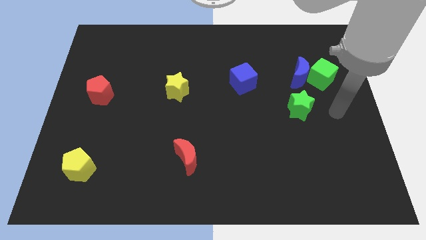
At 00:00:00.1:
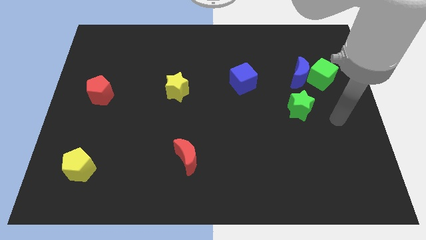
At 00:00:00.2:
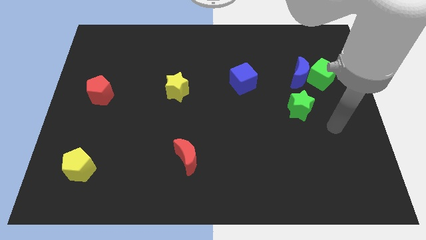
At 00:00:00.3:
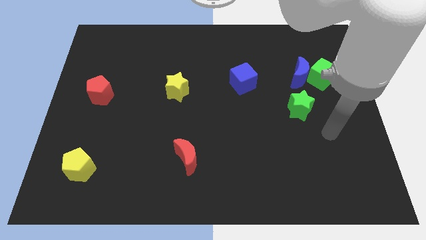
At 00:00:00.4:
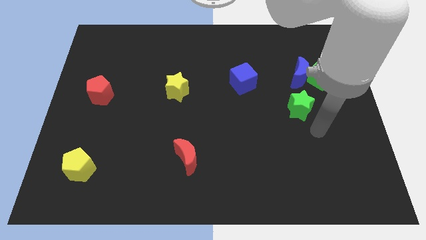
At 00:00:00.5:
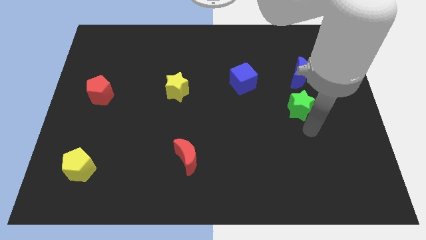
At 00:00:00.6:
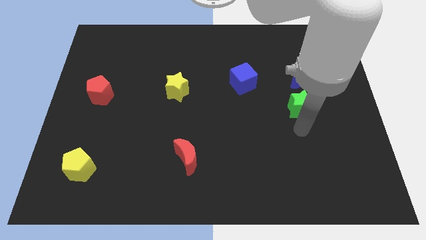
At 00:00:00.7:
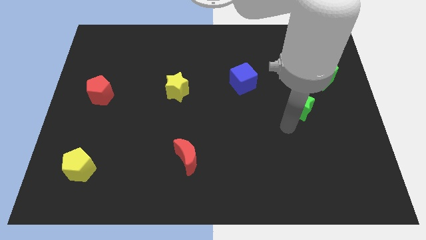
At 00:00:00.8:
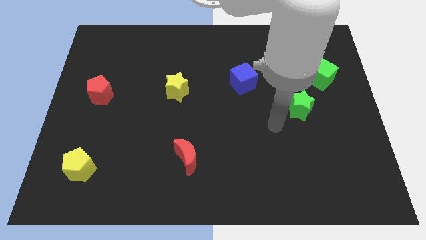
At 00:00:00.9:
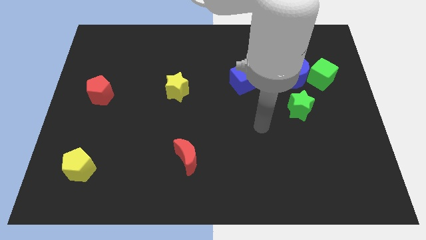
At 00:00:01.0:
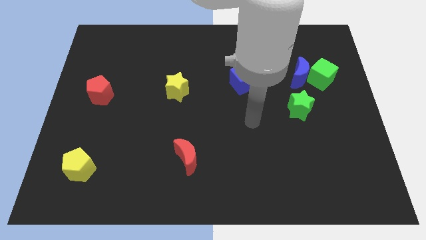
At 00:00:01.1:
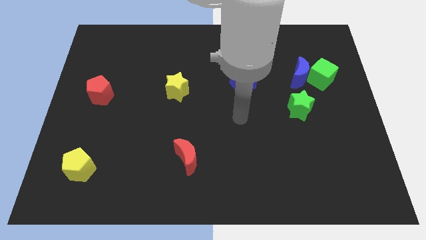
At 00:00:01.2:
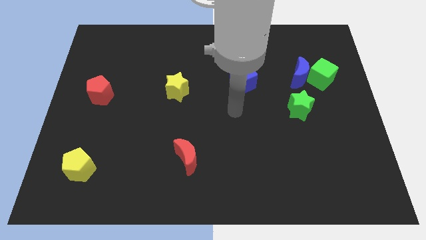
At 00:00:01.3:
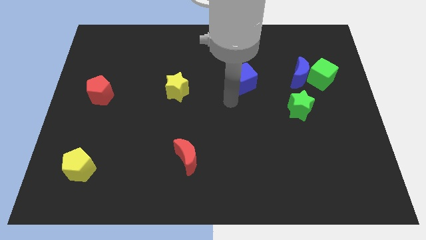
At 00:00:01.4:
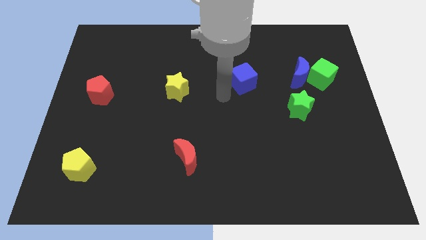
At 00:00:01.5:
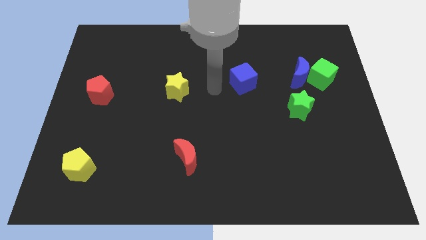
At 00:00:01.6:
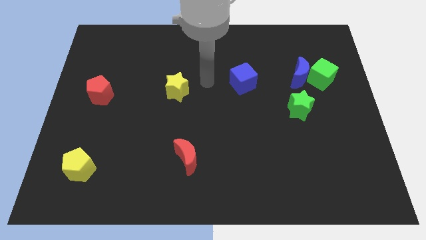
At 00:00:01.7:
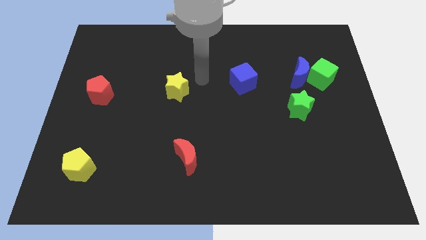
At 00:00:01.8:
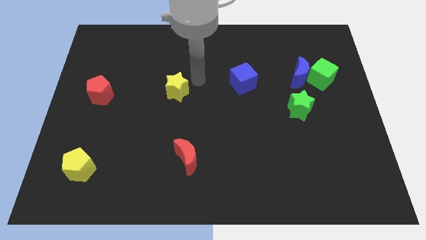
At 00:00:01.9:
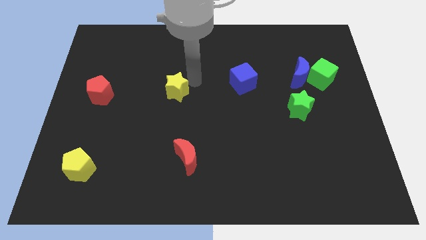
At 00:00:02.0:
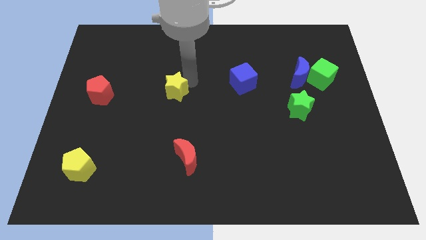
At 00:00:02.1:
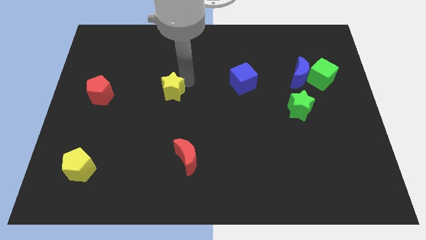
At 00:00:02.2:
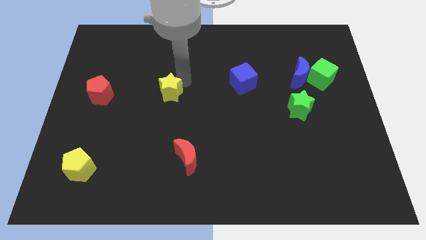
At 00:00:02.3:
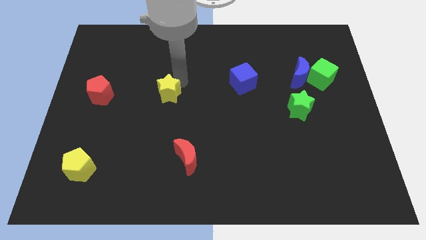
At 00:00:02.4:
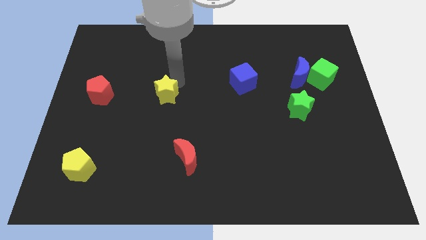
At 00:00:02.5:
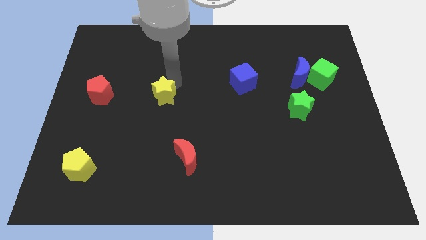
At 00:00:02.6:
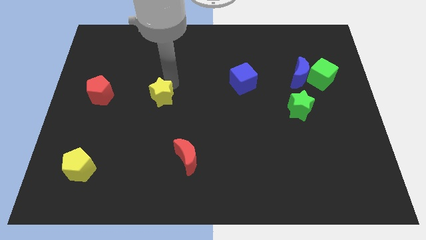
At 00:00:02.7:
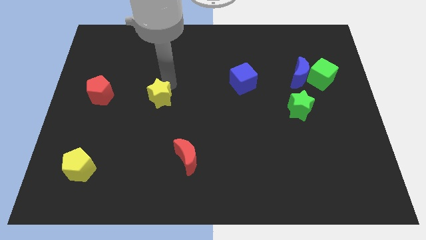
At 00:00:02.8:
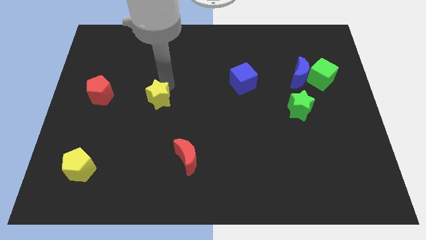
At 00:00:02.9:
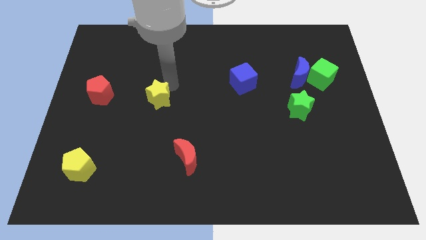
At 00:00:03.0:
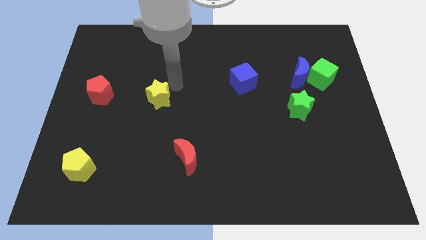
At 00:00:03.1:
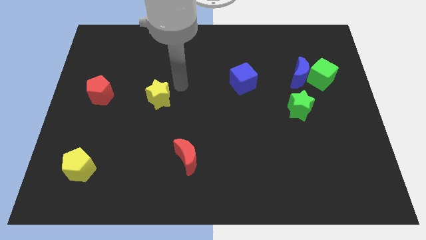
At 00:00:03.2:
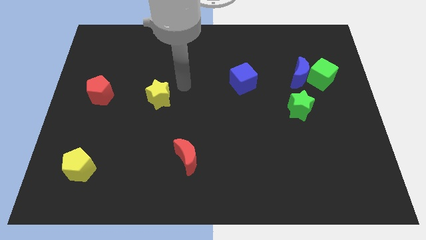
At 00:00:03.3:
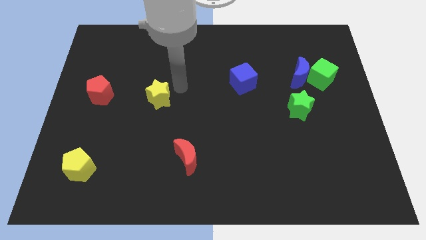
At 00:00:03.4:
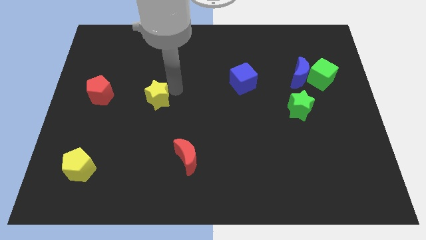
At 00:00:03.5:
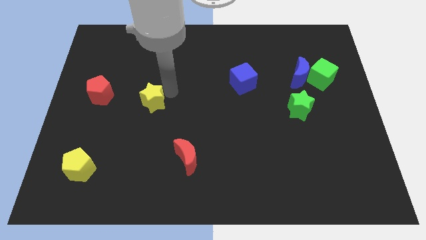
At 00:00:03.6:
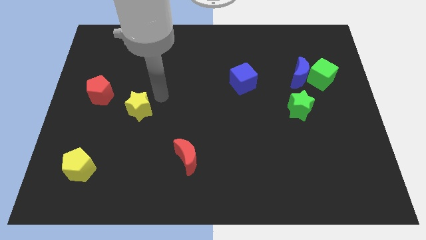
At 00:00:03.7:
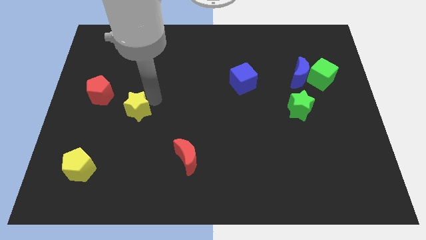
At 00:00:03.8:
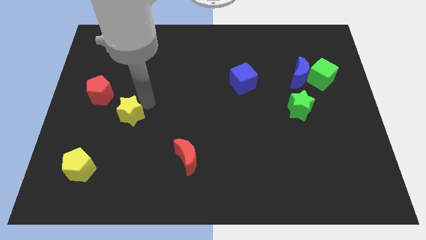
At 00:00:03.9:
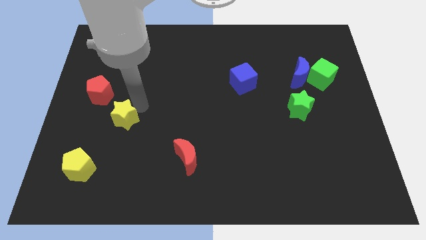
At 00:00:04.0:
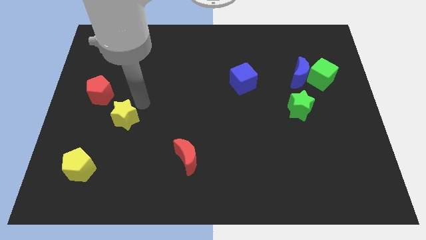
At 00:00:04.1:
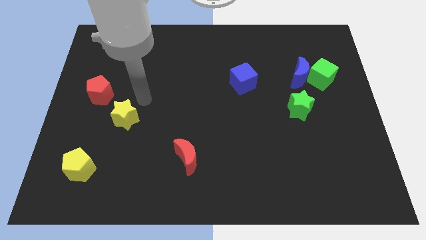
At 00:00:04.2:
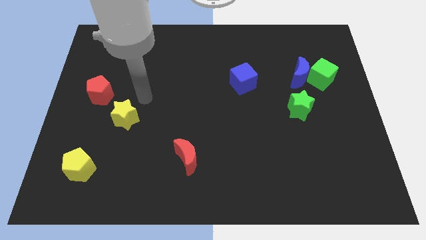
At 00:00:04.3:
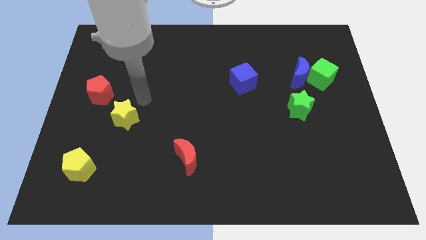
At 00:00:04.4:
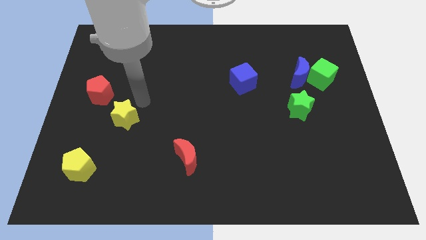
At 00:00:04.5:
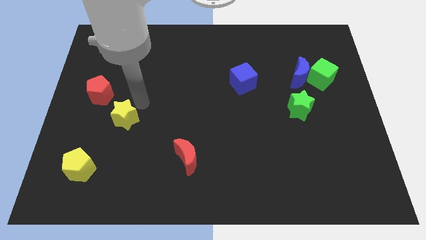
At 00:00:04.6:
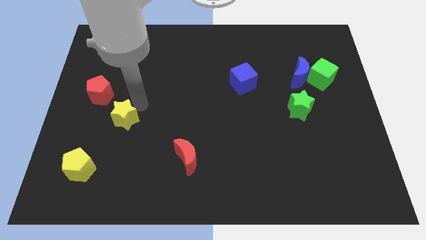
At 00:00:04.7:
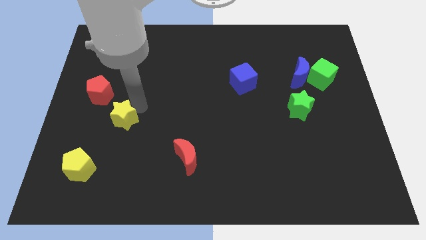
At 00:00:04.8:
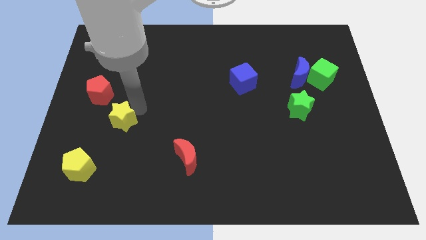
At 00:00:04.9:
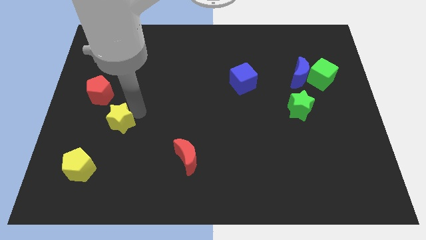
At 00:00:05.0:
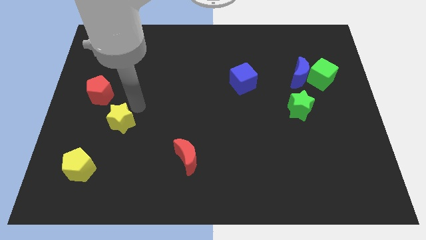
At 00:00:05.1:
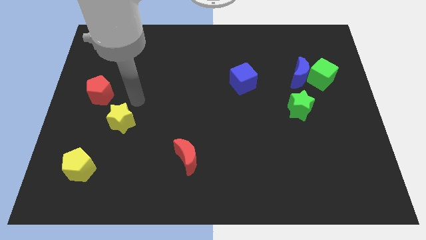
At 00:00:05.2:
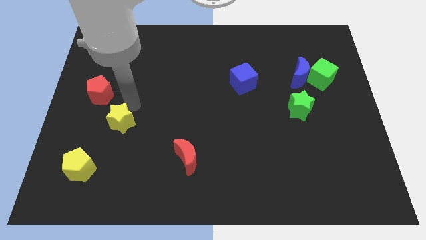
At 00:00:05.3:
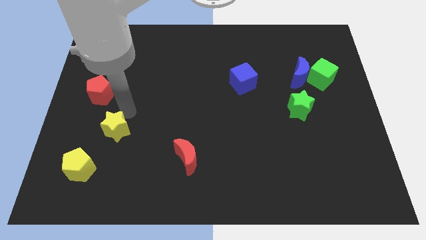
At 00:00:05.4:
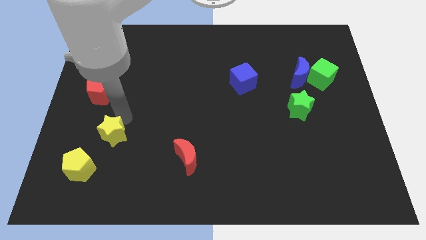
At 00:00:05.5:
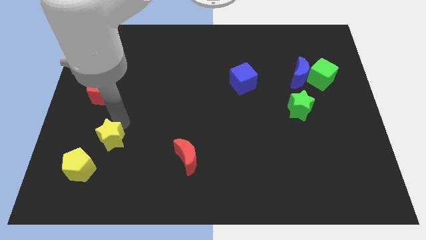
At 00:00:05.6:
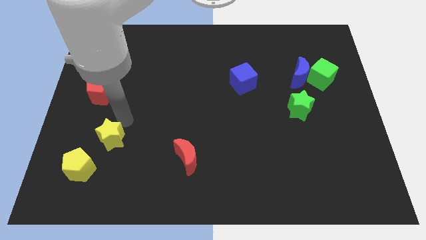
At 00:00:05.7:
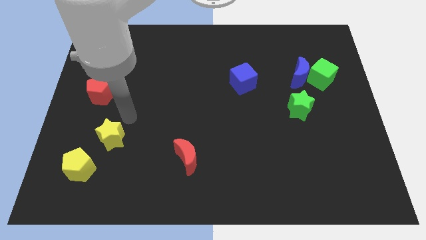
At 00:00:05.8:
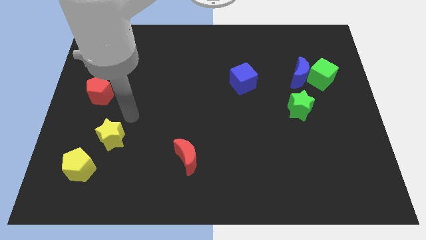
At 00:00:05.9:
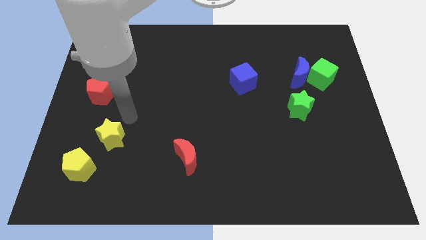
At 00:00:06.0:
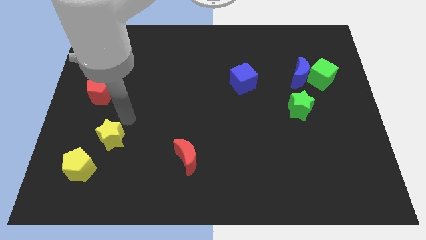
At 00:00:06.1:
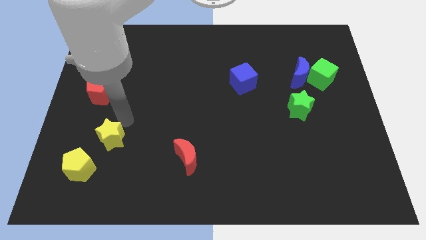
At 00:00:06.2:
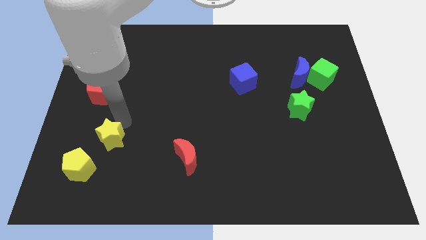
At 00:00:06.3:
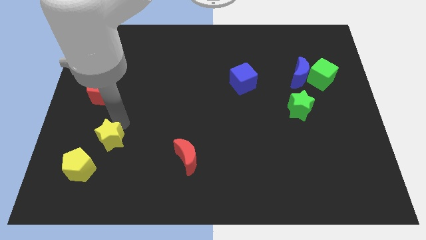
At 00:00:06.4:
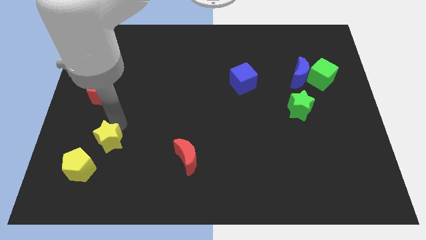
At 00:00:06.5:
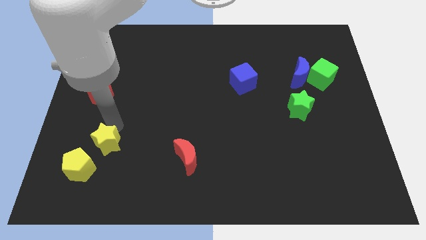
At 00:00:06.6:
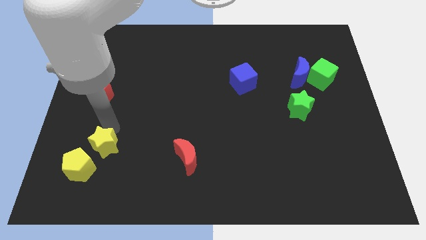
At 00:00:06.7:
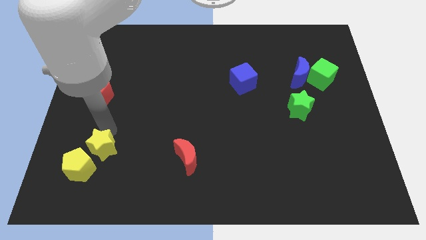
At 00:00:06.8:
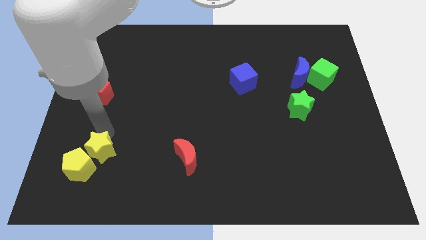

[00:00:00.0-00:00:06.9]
move the yellow star next to the yellow pentagon

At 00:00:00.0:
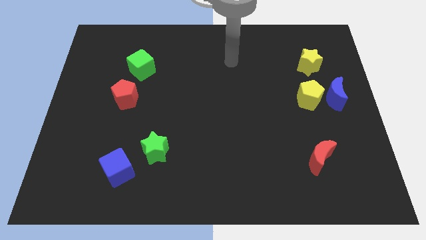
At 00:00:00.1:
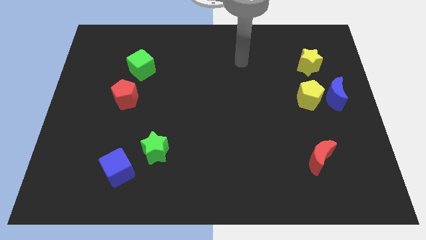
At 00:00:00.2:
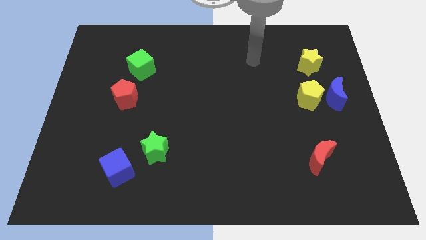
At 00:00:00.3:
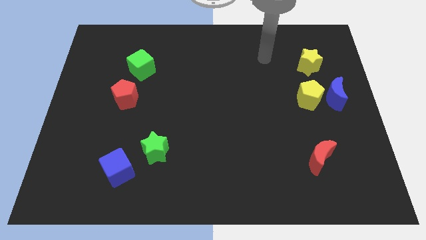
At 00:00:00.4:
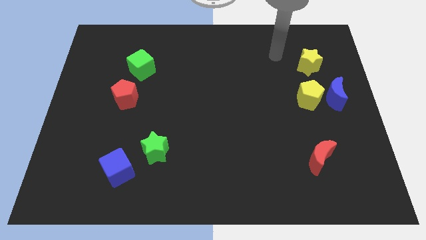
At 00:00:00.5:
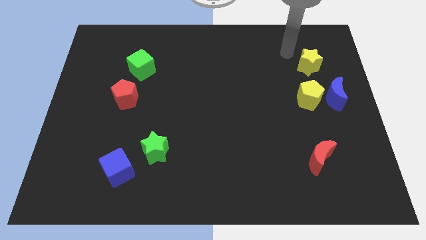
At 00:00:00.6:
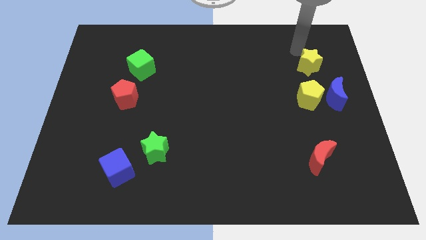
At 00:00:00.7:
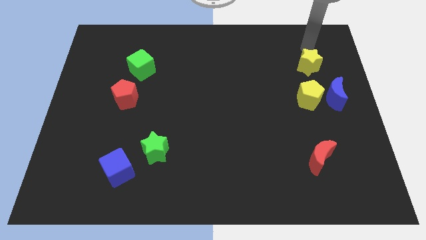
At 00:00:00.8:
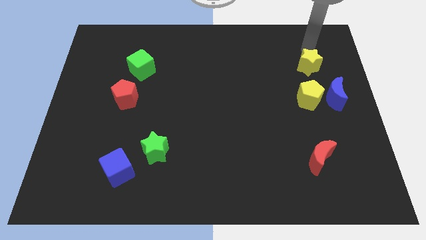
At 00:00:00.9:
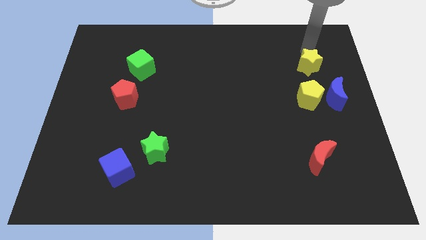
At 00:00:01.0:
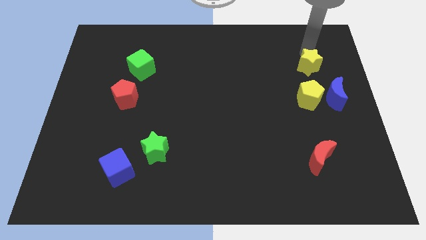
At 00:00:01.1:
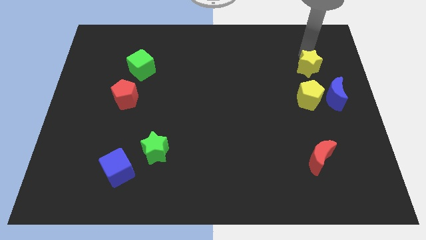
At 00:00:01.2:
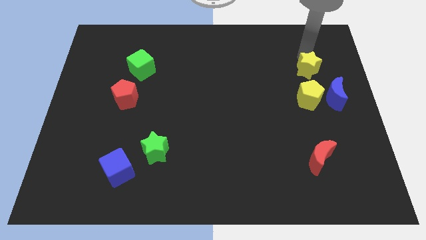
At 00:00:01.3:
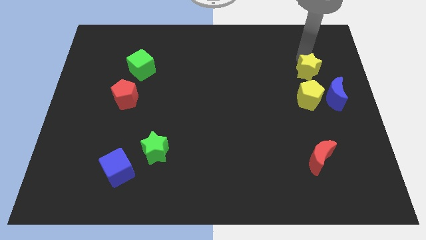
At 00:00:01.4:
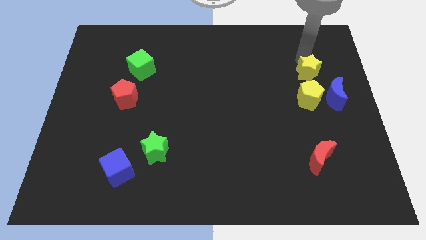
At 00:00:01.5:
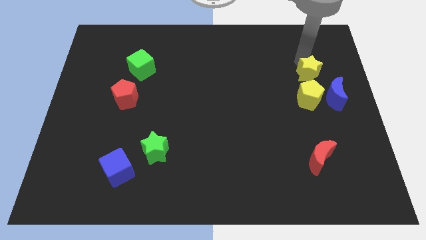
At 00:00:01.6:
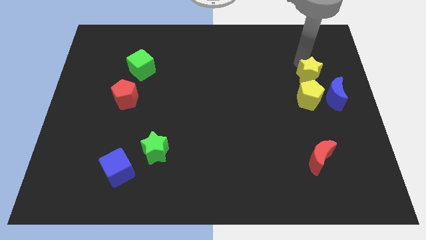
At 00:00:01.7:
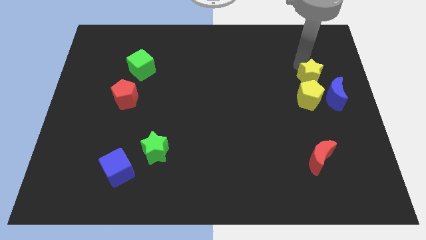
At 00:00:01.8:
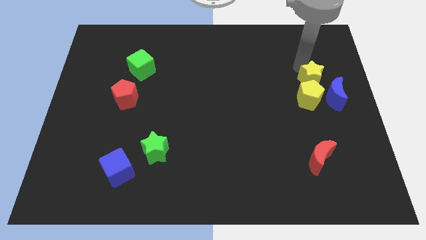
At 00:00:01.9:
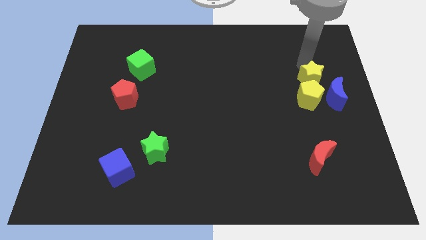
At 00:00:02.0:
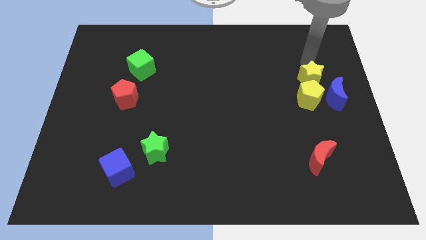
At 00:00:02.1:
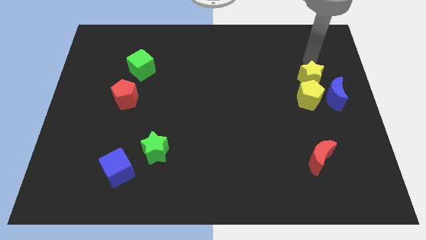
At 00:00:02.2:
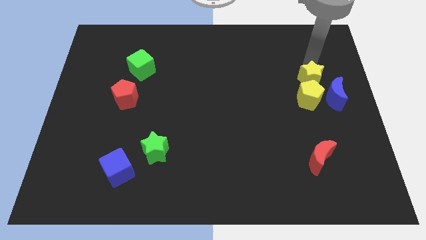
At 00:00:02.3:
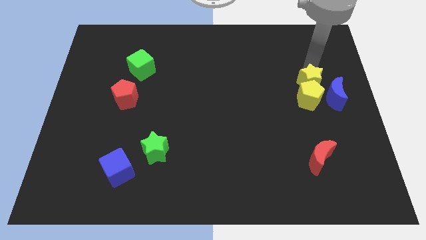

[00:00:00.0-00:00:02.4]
put the yellow star to the yellow pentagon
